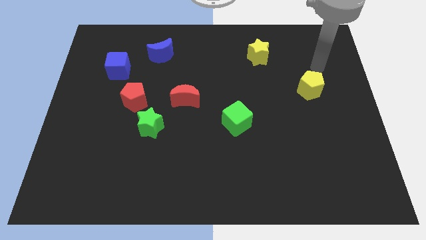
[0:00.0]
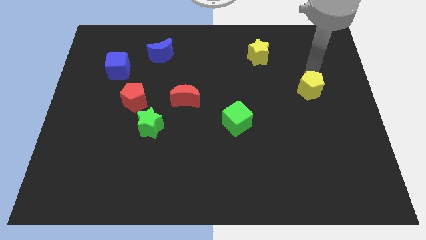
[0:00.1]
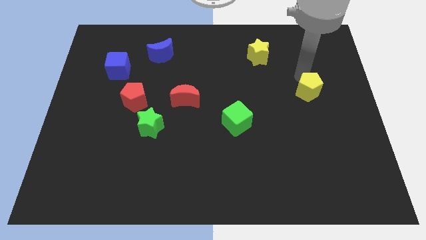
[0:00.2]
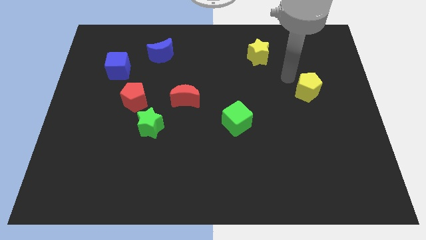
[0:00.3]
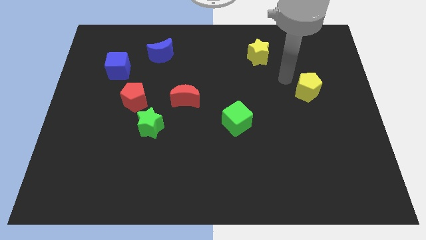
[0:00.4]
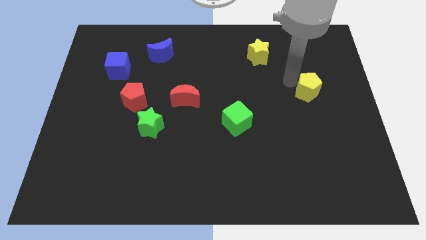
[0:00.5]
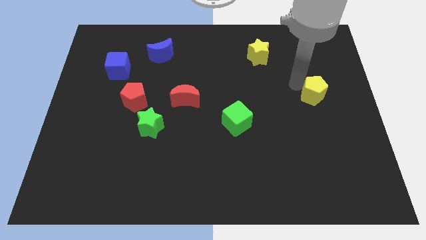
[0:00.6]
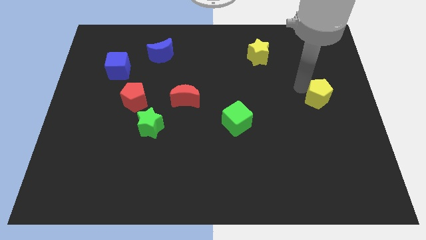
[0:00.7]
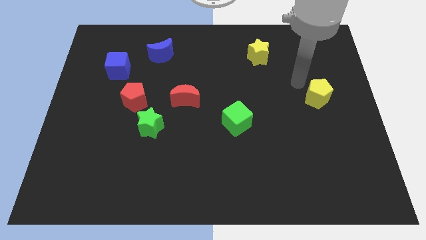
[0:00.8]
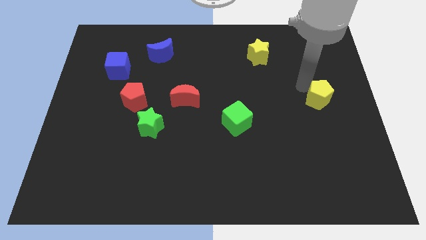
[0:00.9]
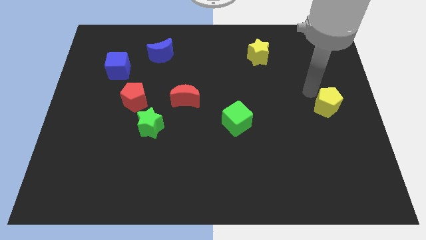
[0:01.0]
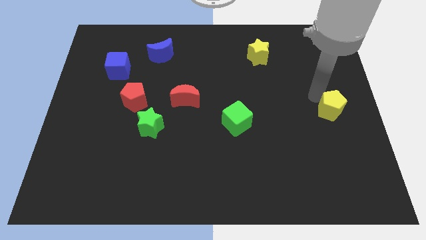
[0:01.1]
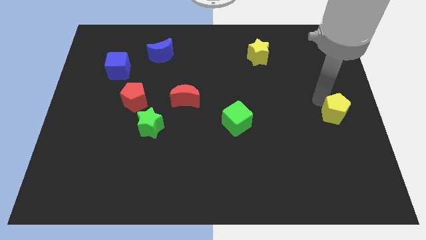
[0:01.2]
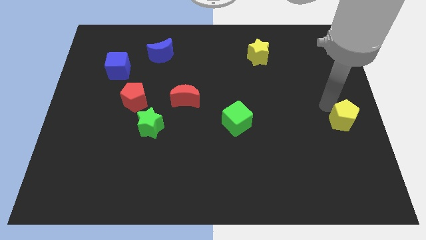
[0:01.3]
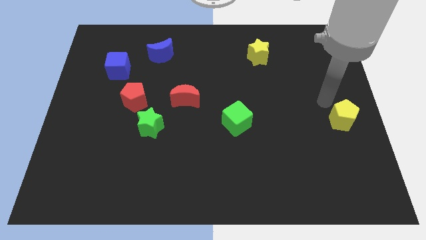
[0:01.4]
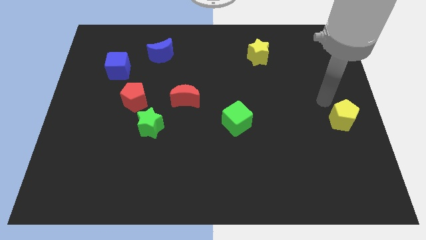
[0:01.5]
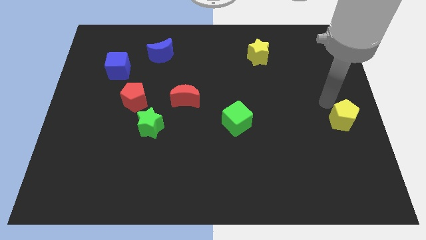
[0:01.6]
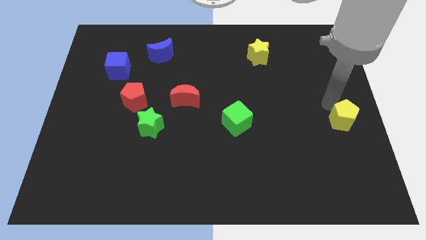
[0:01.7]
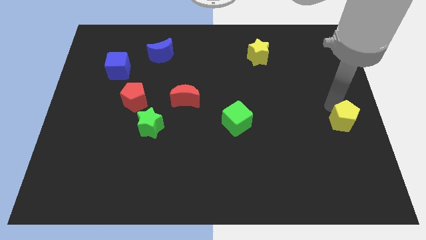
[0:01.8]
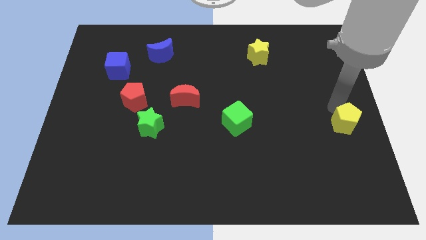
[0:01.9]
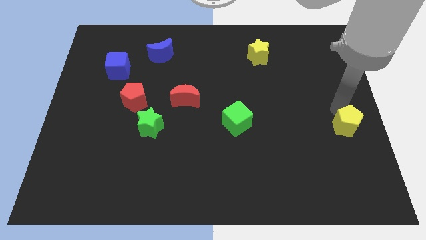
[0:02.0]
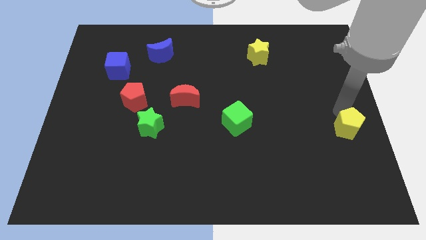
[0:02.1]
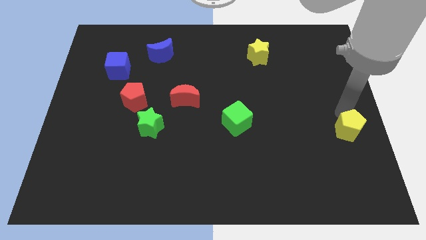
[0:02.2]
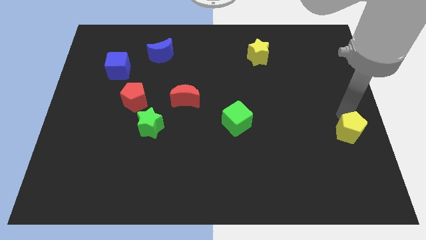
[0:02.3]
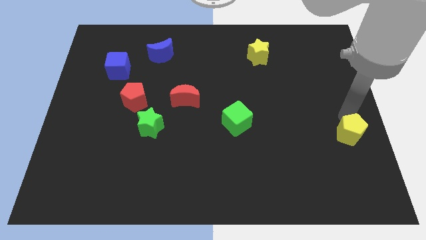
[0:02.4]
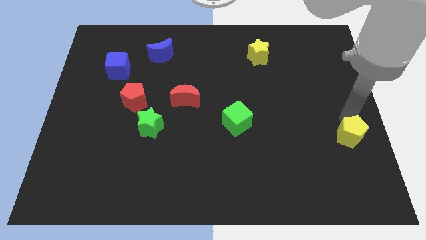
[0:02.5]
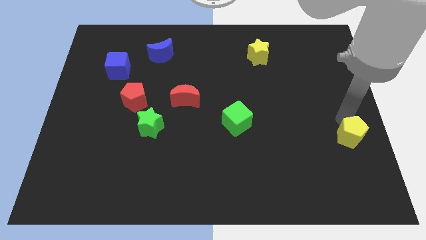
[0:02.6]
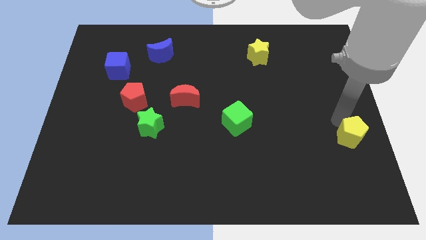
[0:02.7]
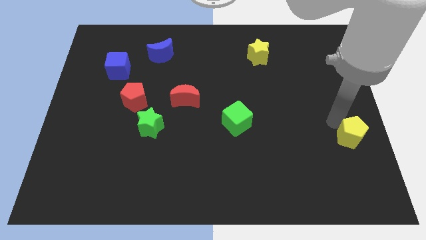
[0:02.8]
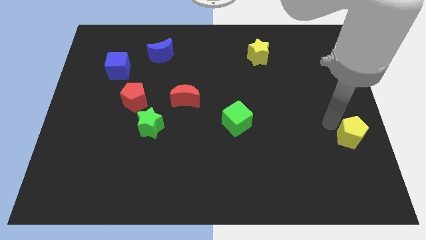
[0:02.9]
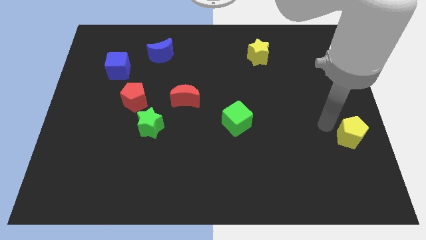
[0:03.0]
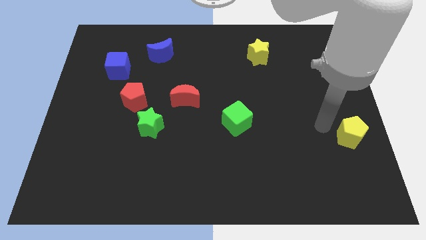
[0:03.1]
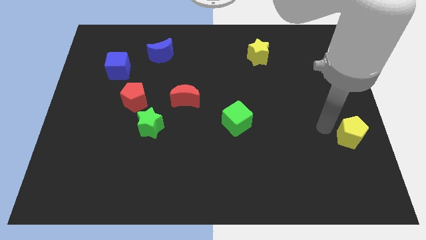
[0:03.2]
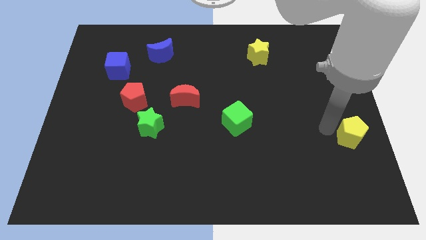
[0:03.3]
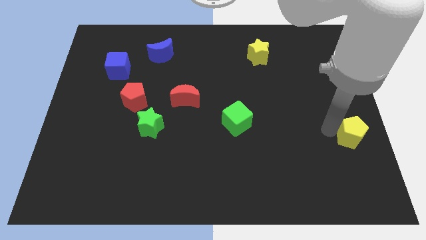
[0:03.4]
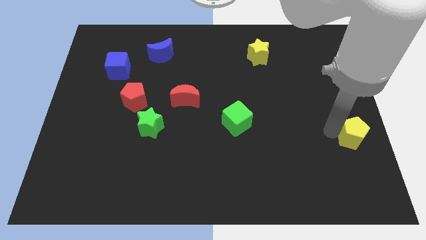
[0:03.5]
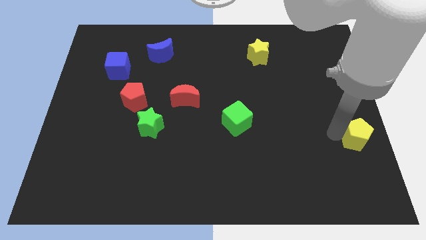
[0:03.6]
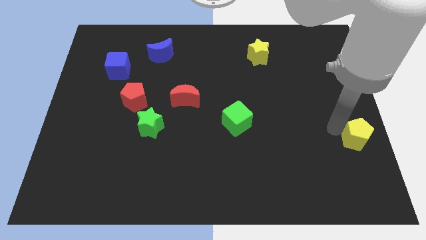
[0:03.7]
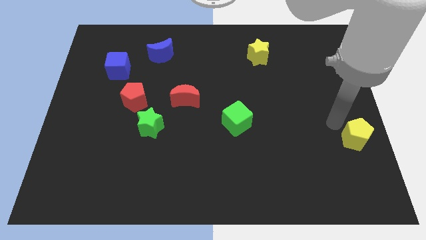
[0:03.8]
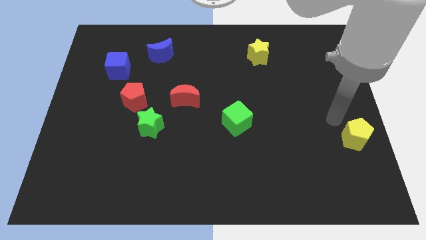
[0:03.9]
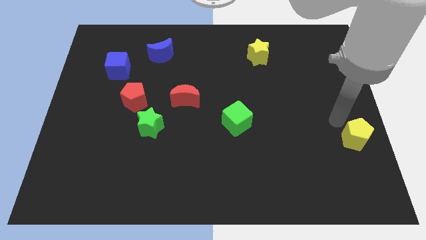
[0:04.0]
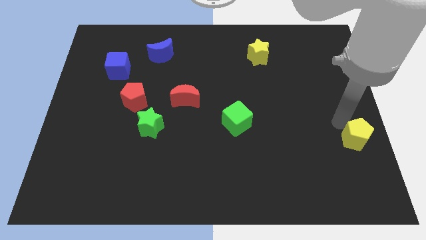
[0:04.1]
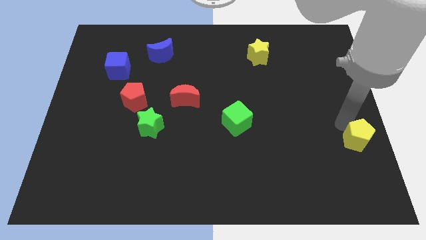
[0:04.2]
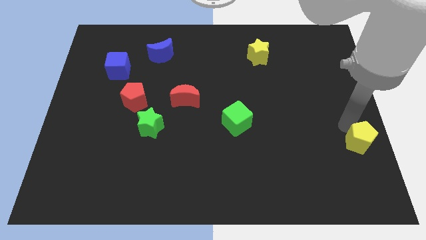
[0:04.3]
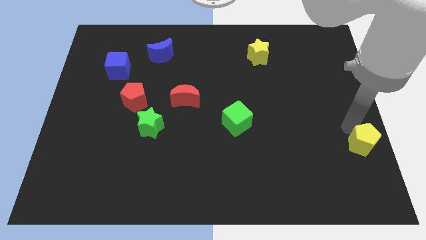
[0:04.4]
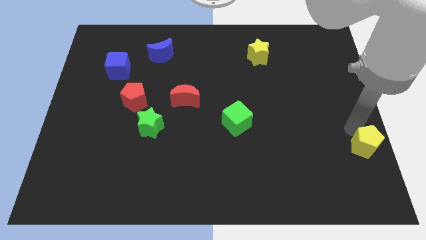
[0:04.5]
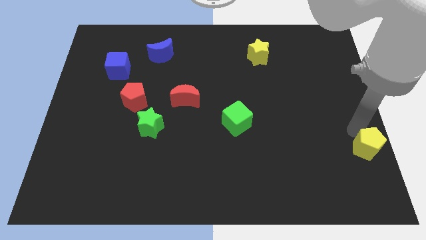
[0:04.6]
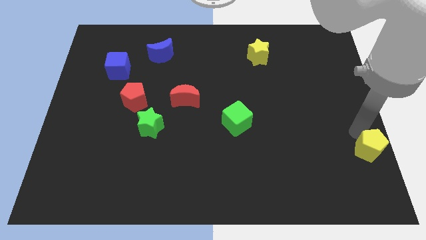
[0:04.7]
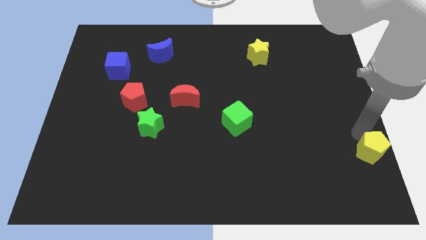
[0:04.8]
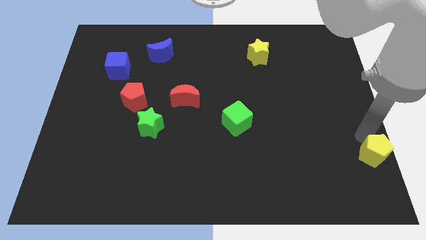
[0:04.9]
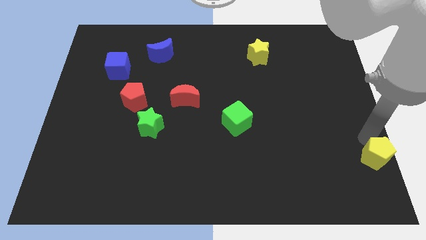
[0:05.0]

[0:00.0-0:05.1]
put the yellow pentagon to the bottom right

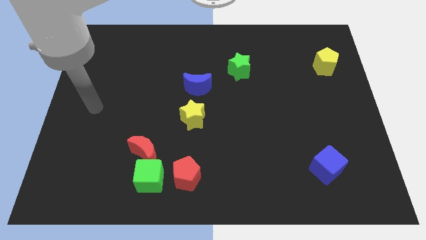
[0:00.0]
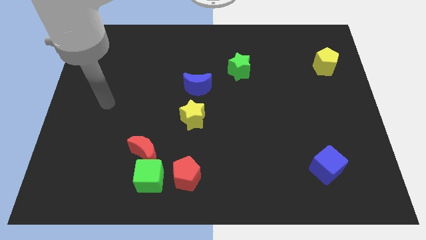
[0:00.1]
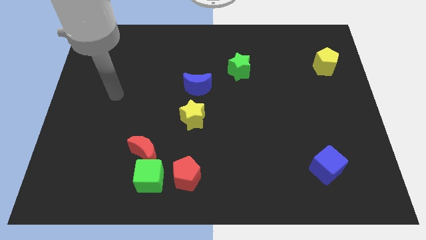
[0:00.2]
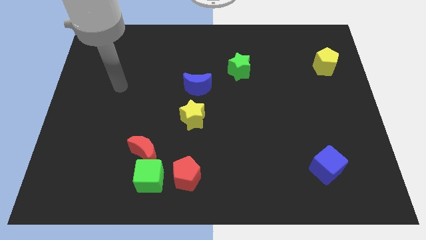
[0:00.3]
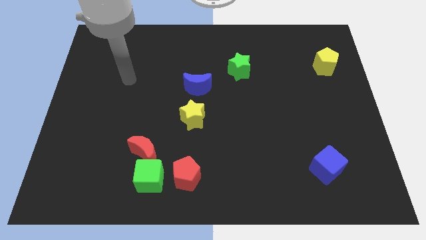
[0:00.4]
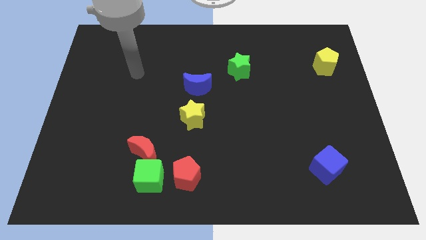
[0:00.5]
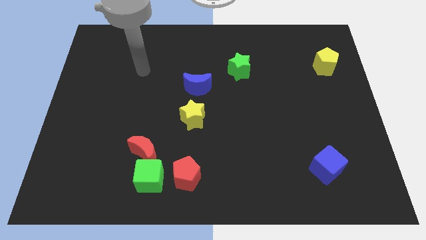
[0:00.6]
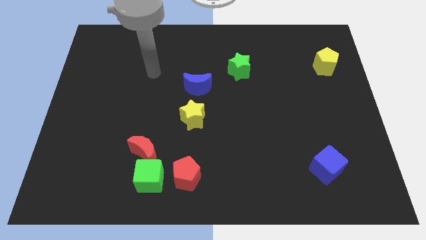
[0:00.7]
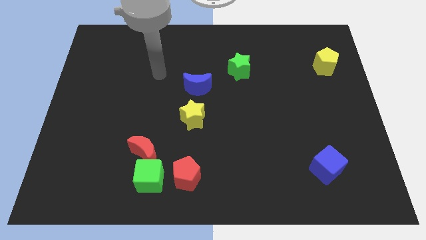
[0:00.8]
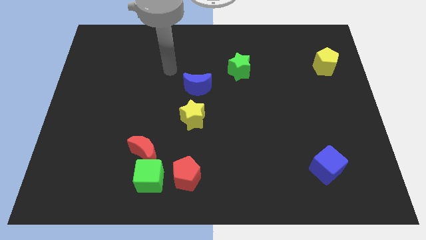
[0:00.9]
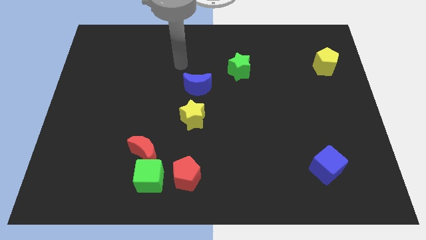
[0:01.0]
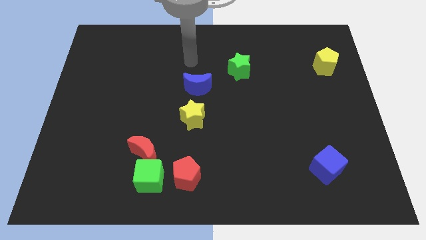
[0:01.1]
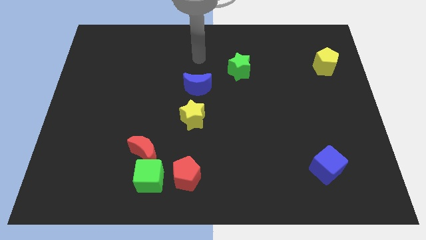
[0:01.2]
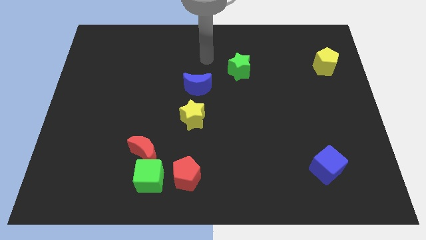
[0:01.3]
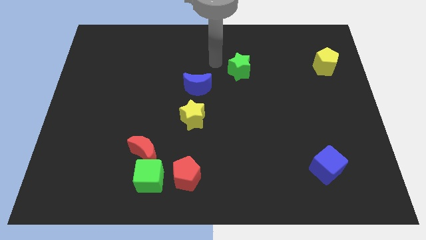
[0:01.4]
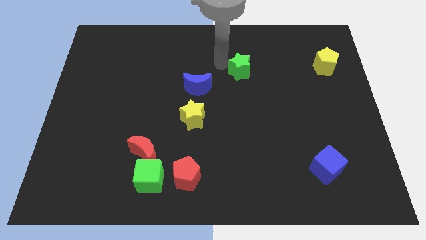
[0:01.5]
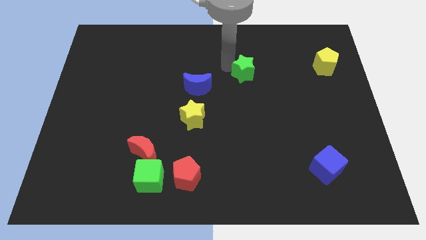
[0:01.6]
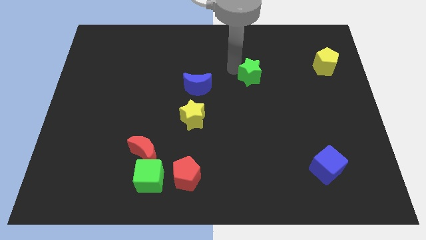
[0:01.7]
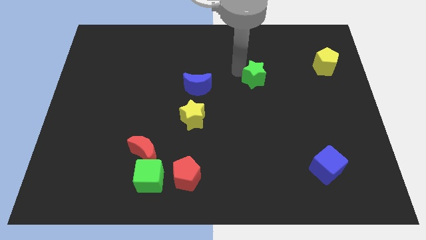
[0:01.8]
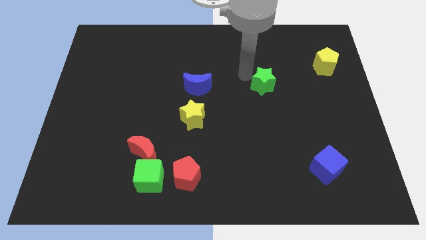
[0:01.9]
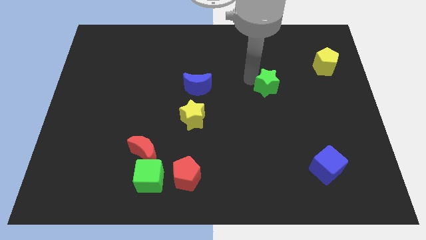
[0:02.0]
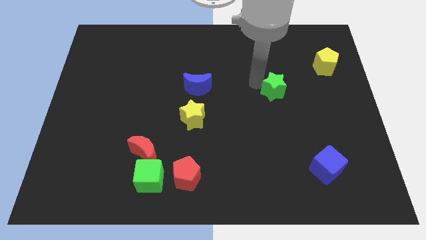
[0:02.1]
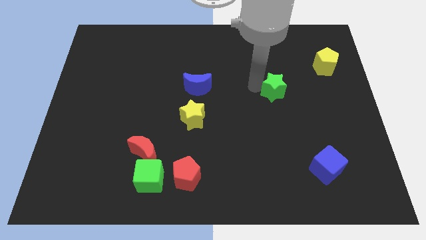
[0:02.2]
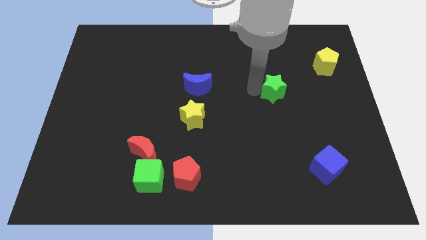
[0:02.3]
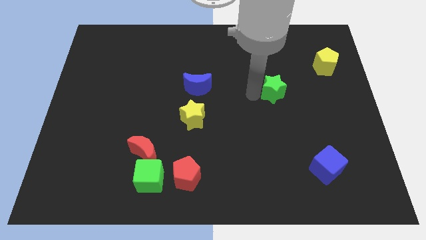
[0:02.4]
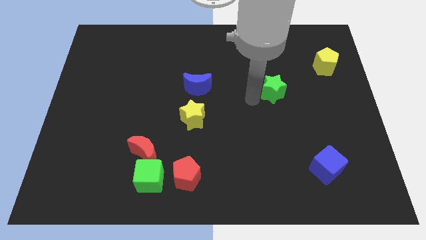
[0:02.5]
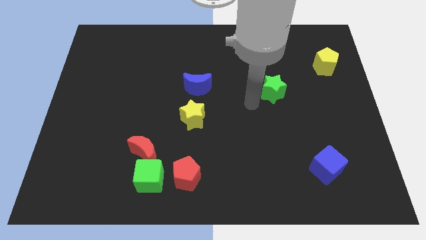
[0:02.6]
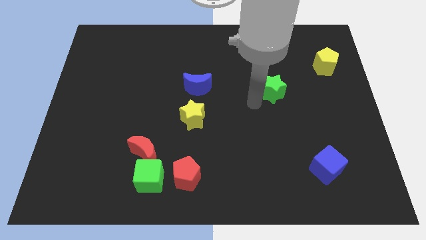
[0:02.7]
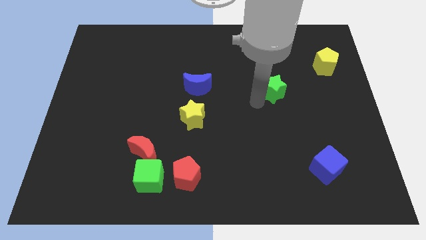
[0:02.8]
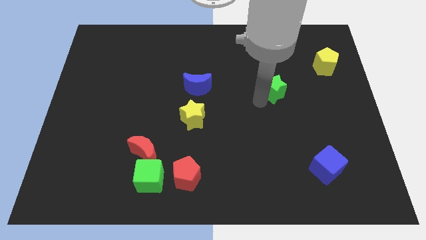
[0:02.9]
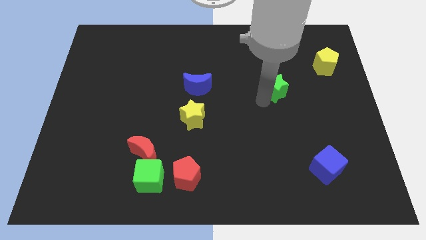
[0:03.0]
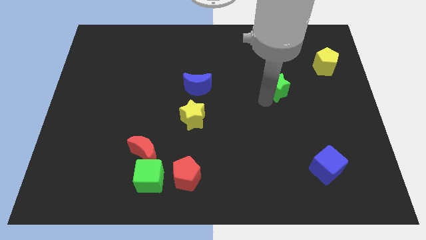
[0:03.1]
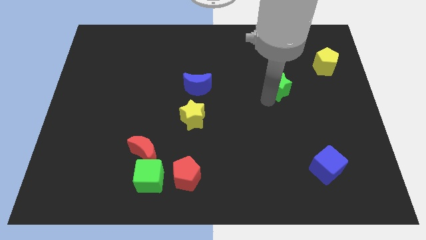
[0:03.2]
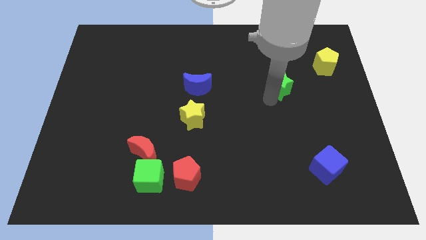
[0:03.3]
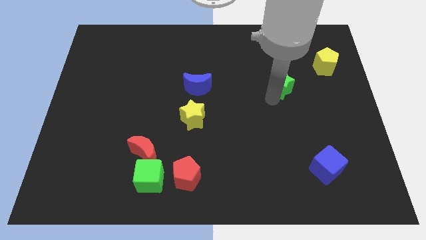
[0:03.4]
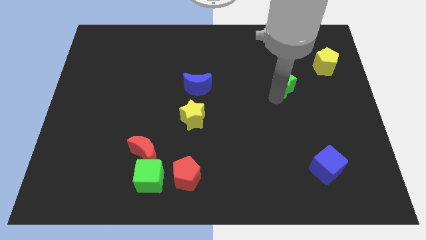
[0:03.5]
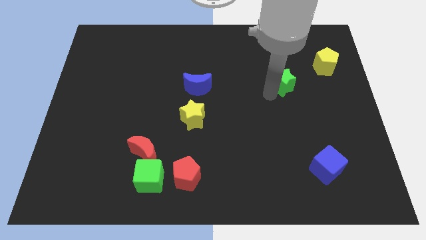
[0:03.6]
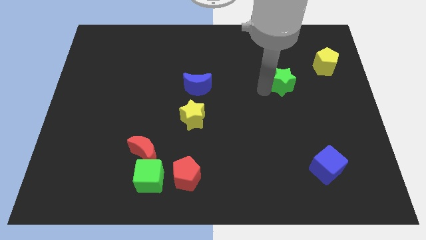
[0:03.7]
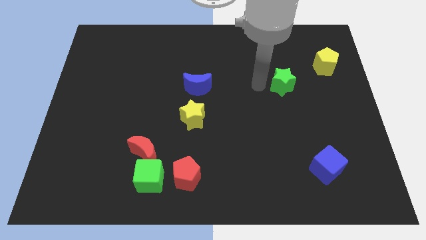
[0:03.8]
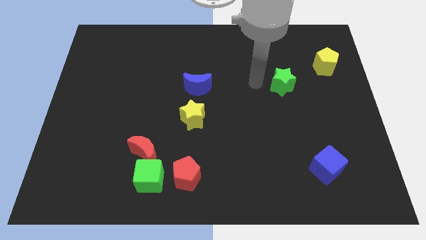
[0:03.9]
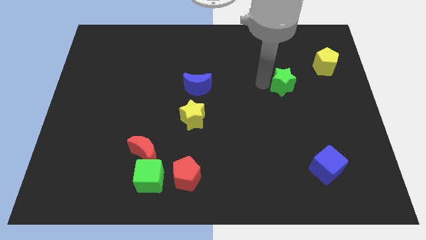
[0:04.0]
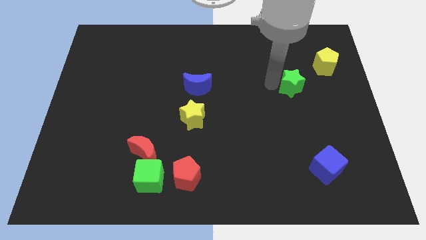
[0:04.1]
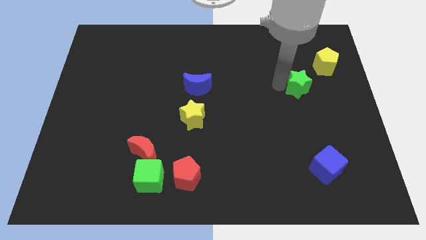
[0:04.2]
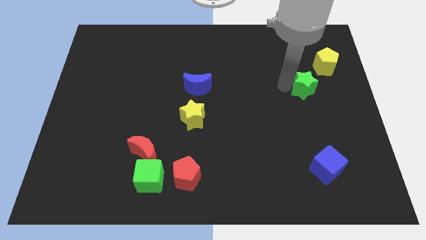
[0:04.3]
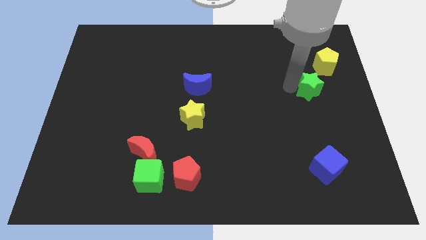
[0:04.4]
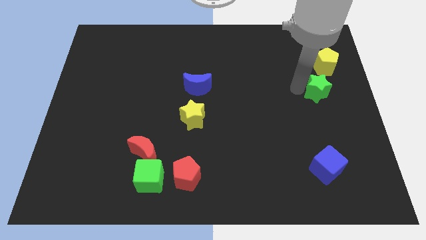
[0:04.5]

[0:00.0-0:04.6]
slide the green star to the right side of the board
